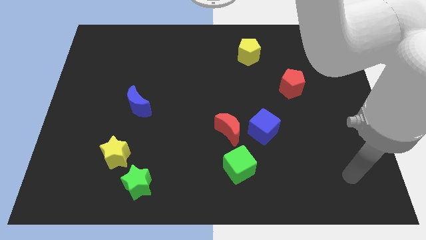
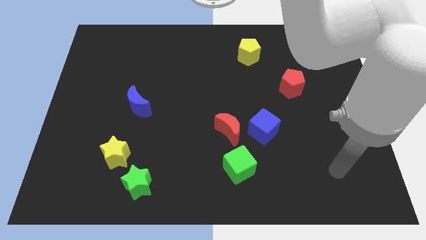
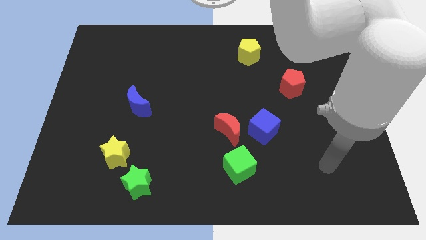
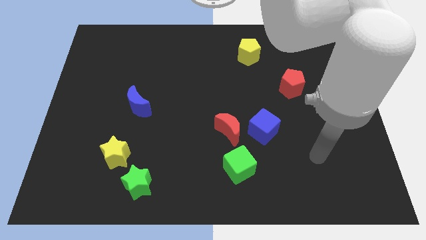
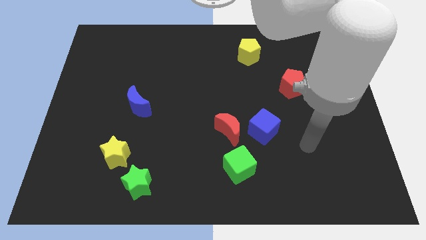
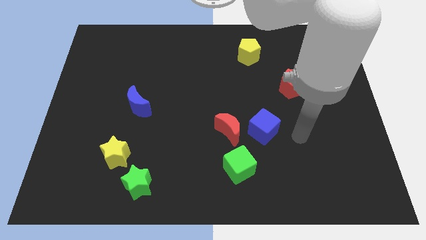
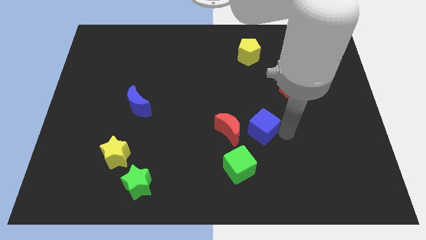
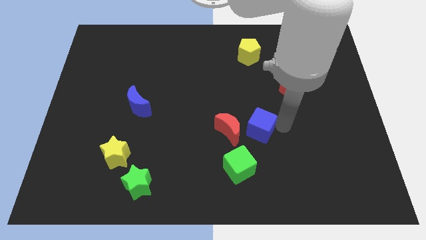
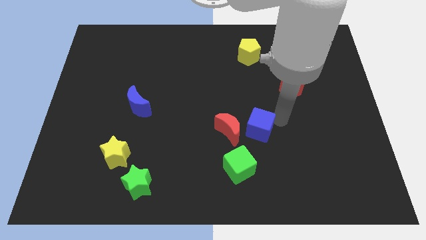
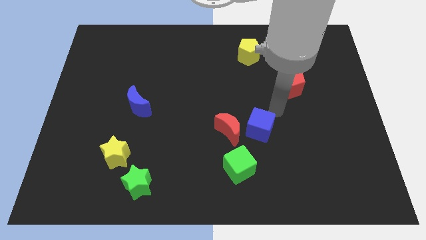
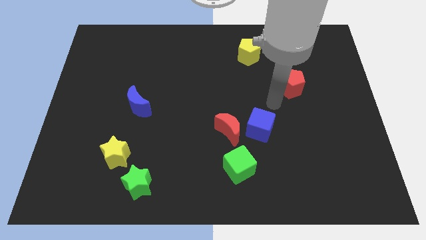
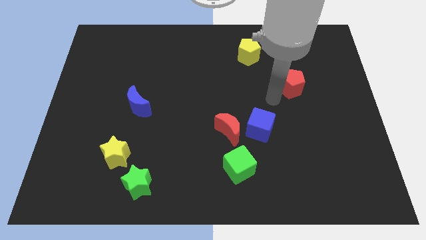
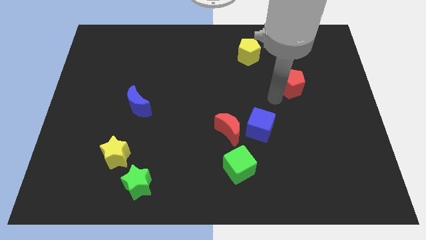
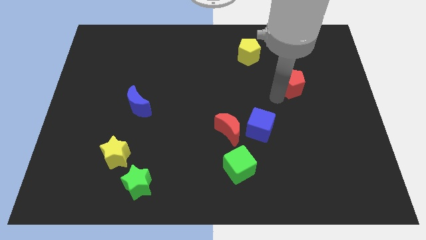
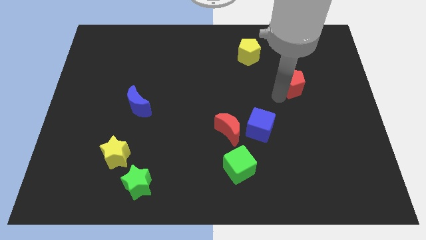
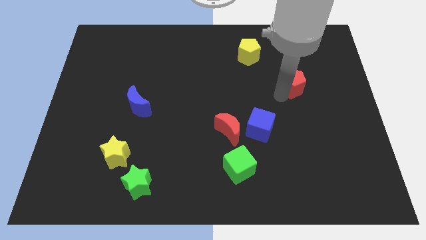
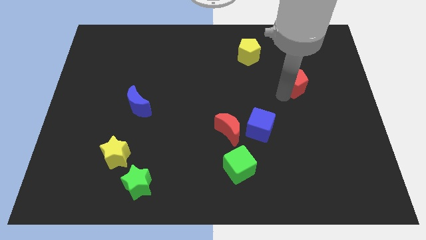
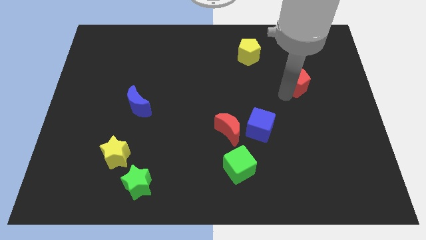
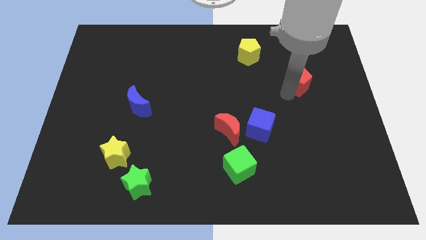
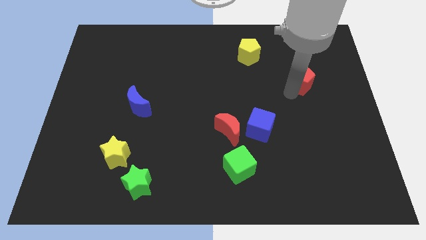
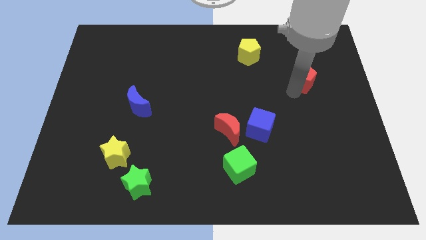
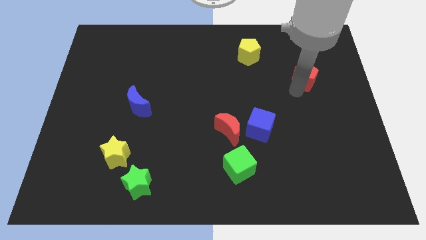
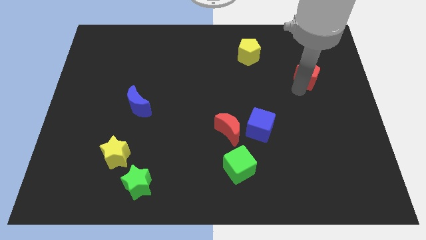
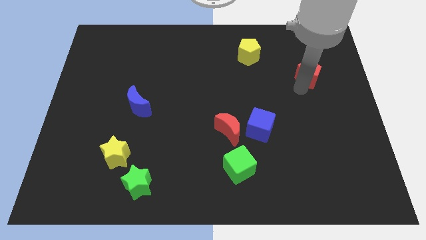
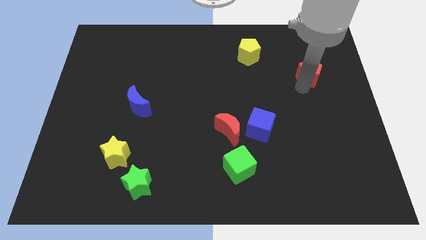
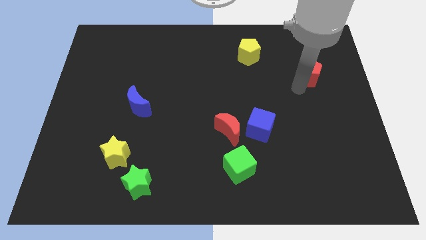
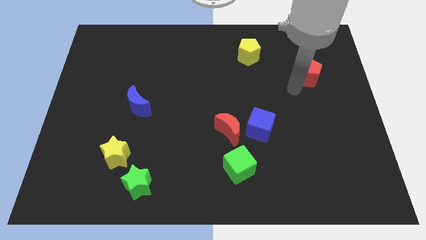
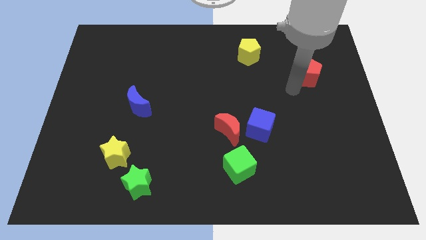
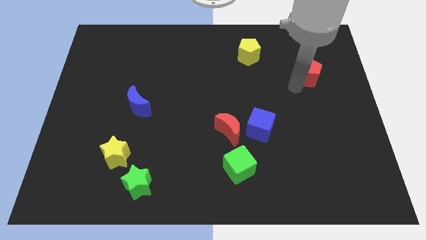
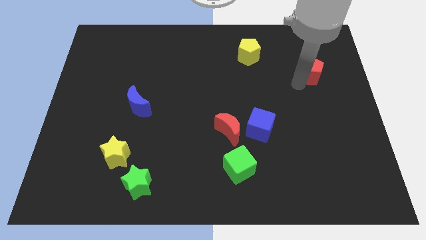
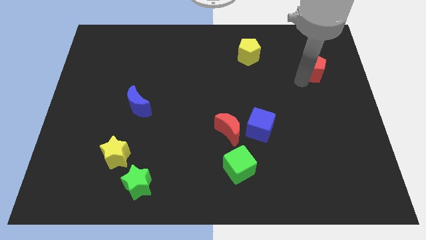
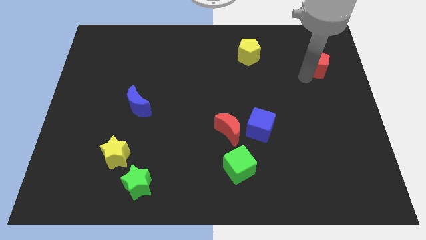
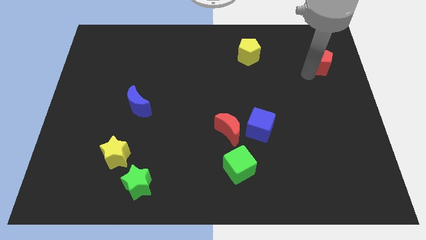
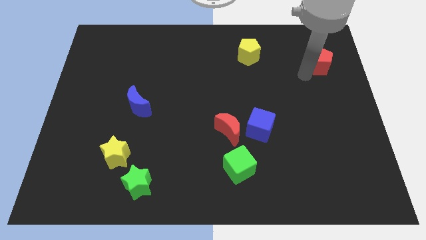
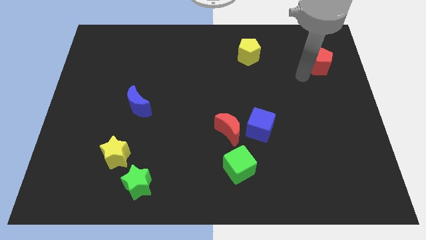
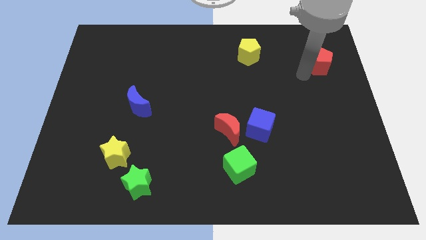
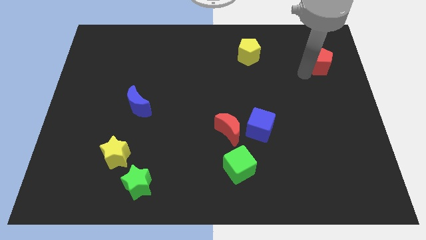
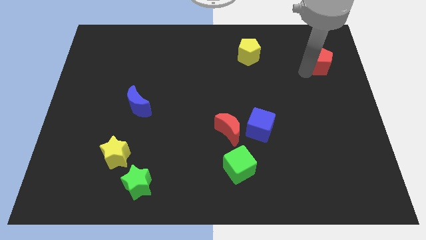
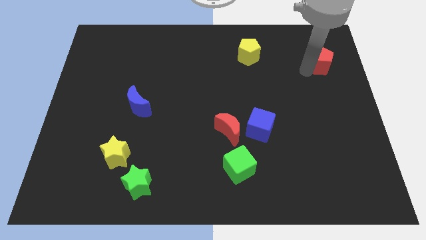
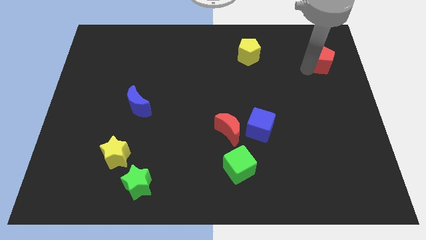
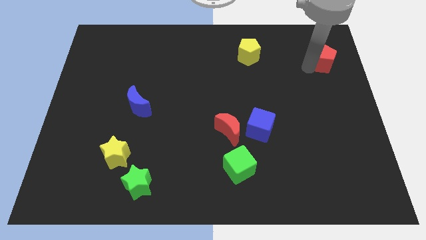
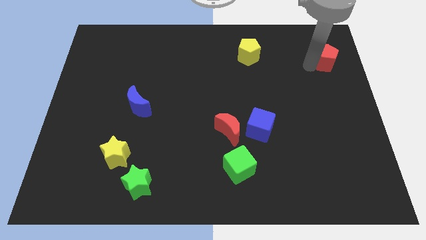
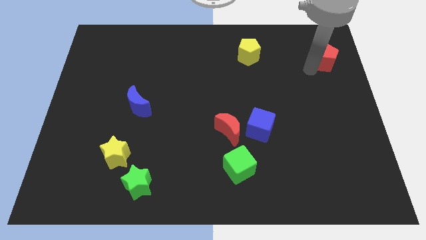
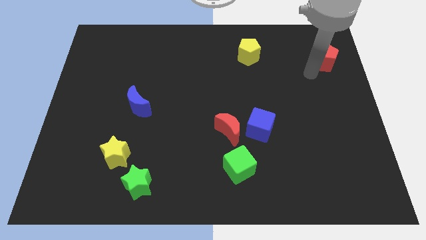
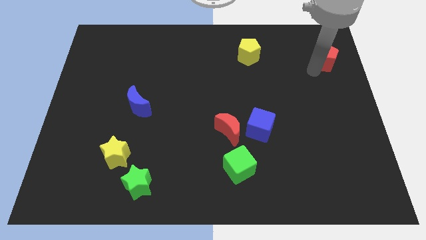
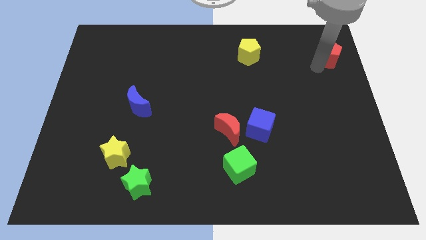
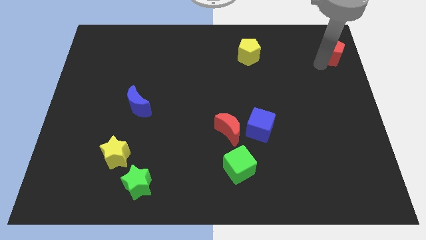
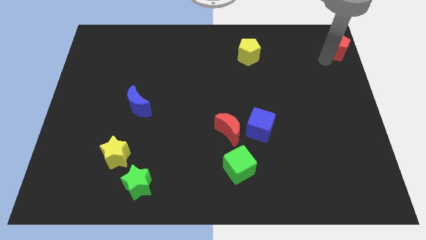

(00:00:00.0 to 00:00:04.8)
push the red pentagon to the top right corner
